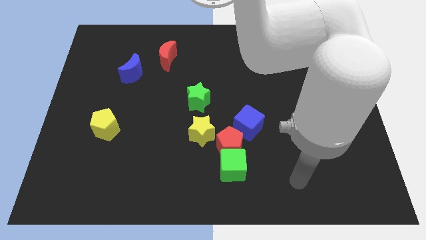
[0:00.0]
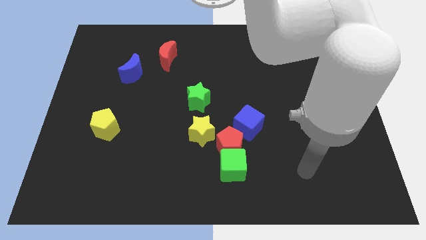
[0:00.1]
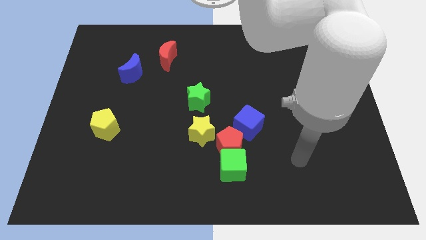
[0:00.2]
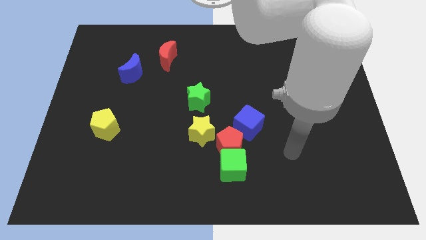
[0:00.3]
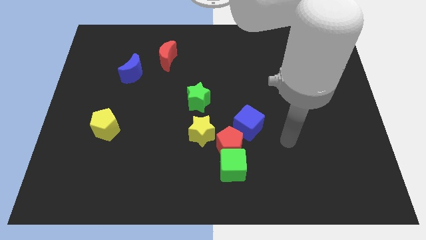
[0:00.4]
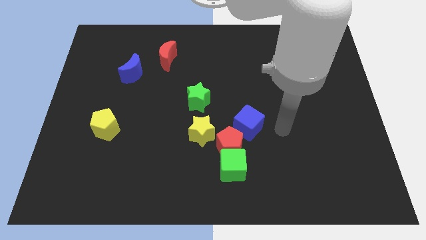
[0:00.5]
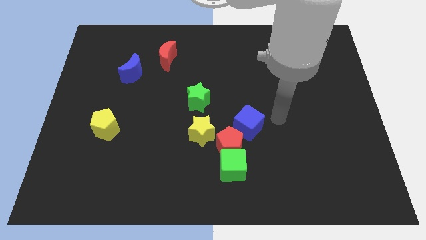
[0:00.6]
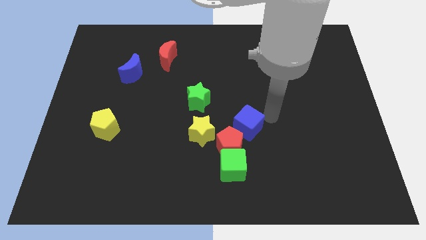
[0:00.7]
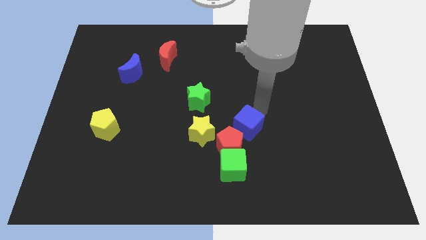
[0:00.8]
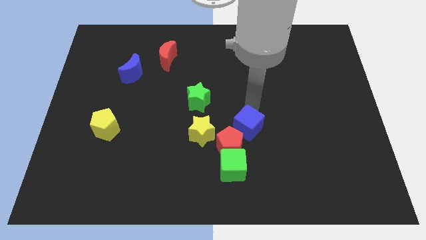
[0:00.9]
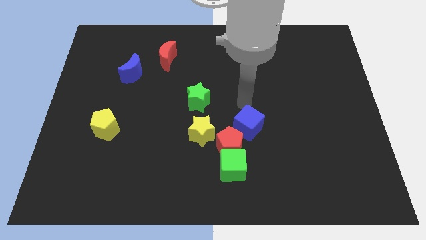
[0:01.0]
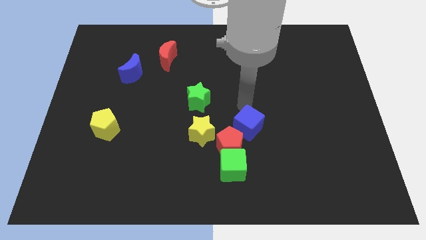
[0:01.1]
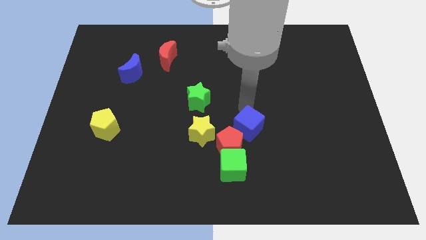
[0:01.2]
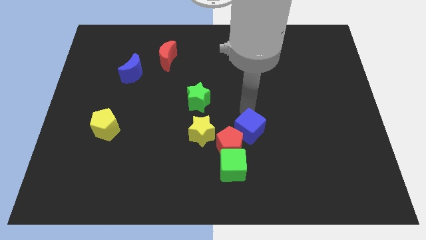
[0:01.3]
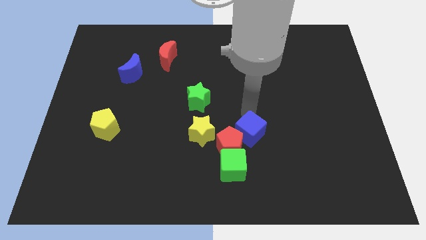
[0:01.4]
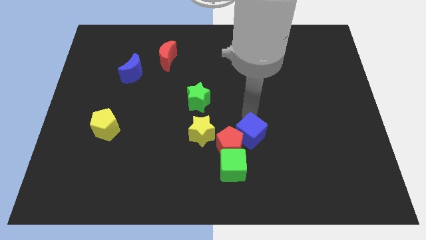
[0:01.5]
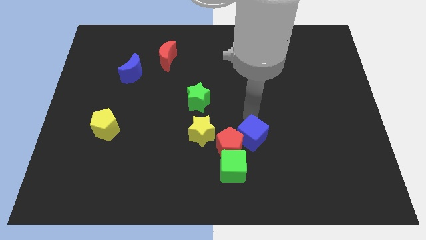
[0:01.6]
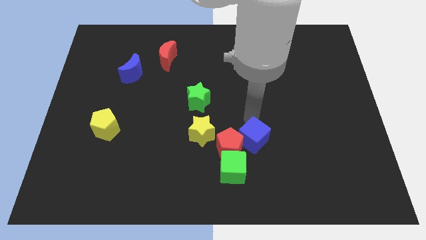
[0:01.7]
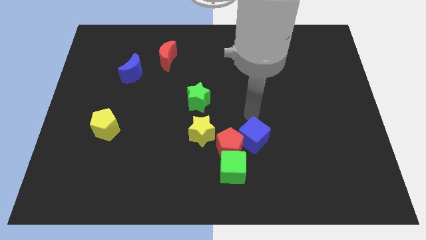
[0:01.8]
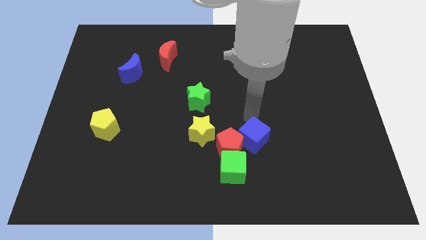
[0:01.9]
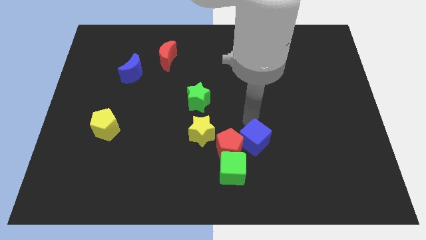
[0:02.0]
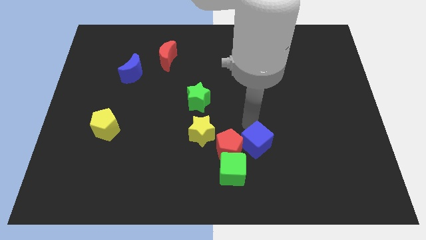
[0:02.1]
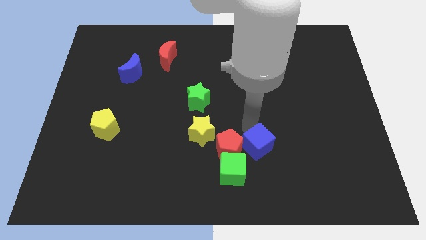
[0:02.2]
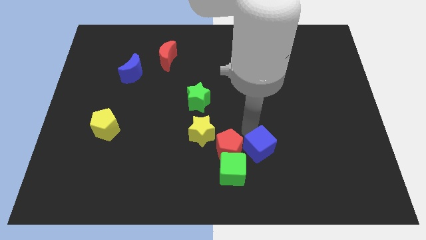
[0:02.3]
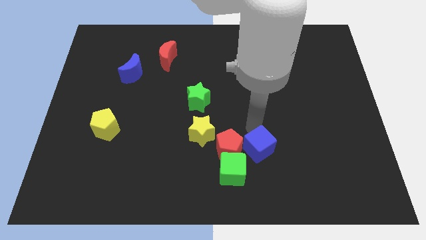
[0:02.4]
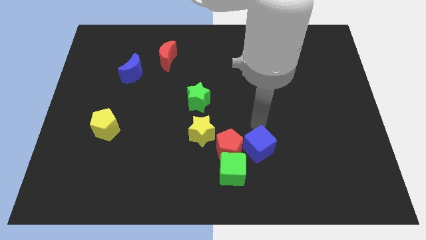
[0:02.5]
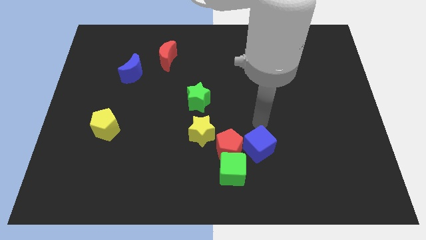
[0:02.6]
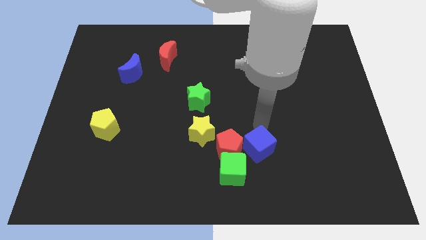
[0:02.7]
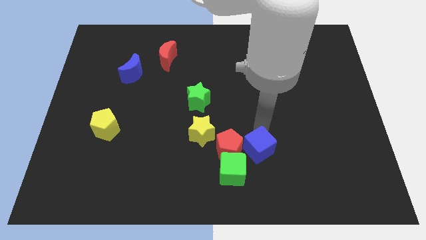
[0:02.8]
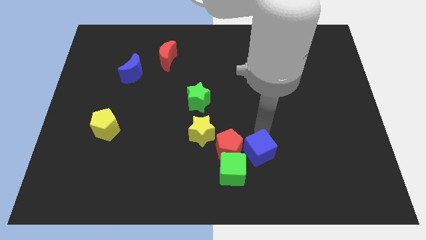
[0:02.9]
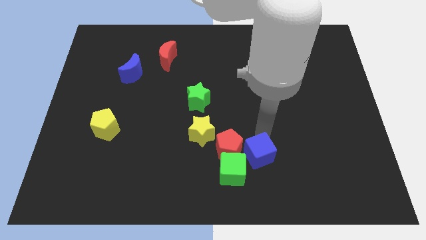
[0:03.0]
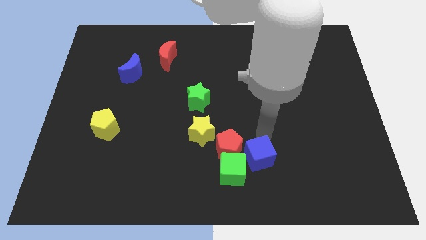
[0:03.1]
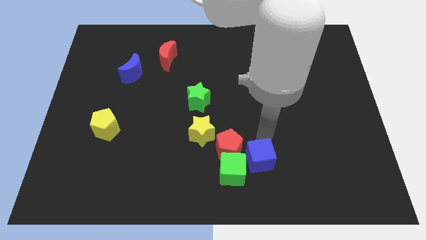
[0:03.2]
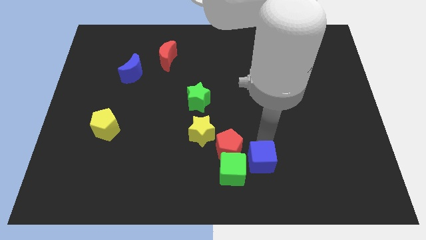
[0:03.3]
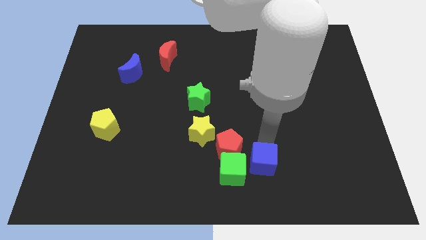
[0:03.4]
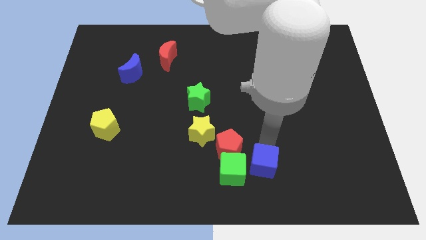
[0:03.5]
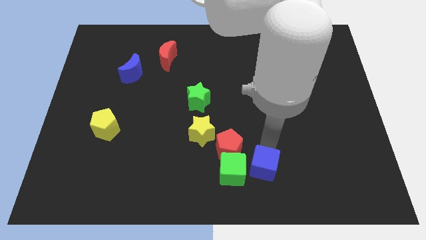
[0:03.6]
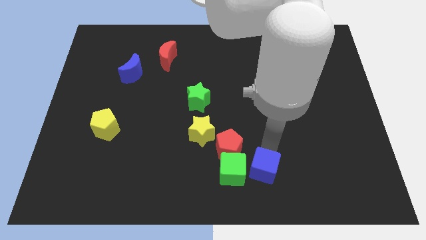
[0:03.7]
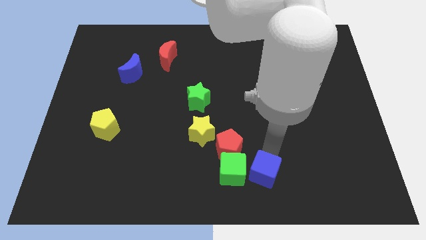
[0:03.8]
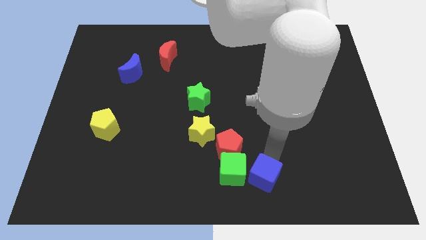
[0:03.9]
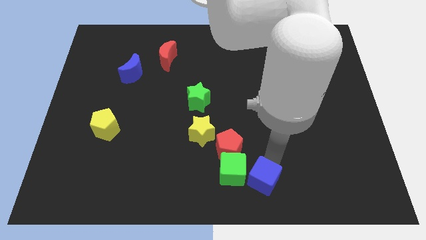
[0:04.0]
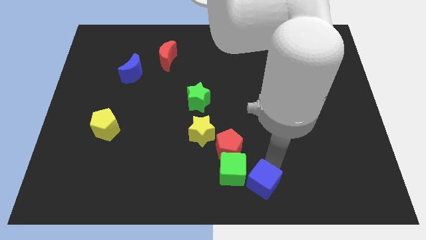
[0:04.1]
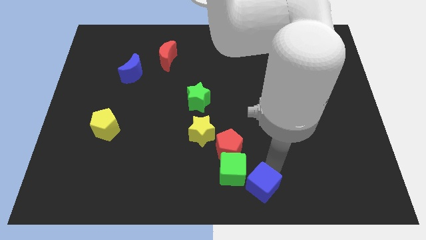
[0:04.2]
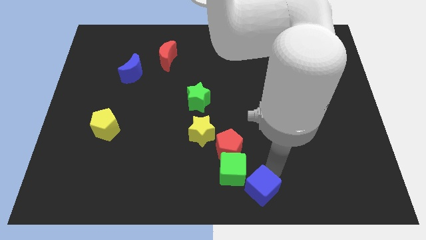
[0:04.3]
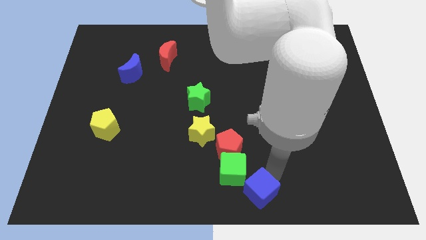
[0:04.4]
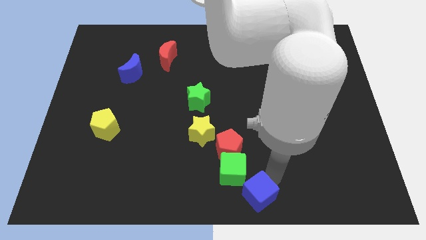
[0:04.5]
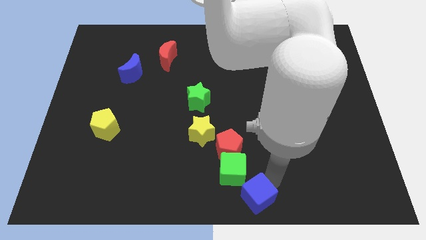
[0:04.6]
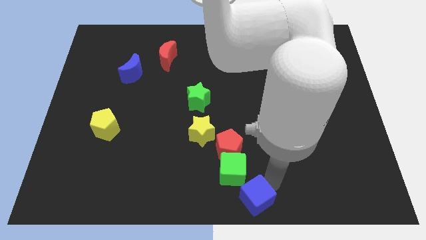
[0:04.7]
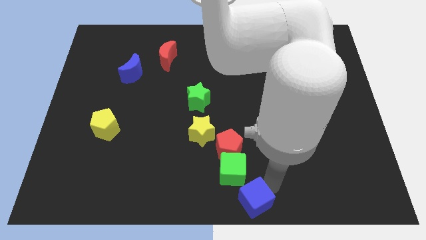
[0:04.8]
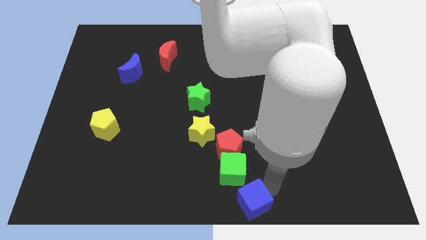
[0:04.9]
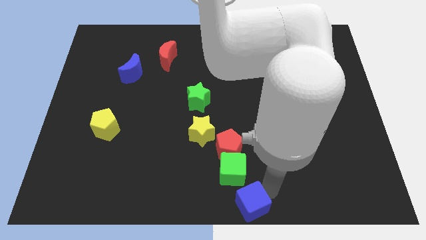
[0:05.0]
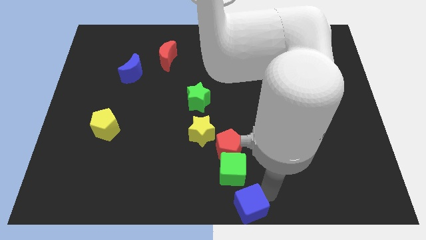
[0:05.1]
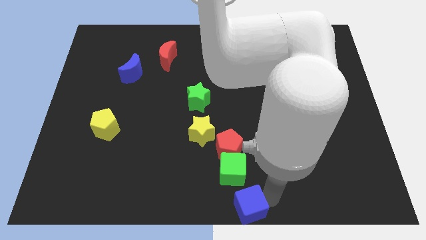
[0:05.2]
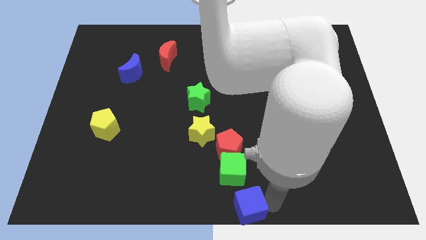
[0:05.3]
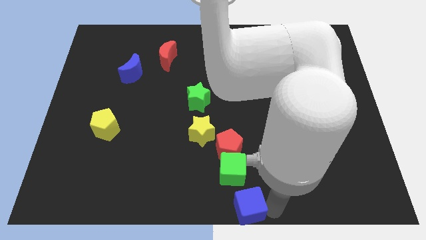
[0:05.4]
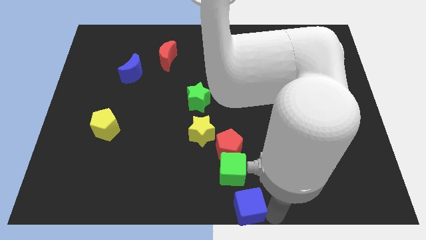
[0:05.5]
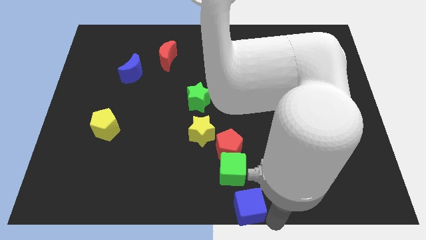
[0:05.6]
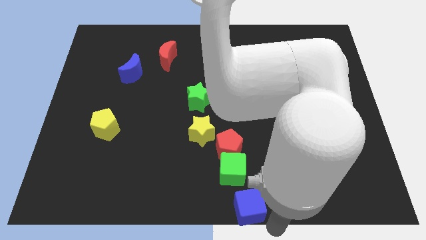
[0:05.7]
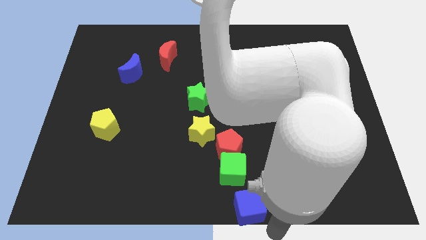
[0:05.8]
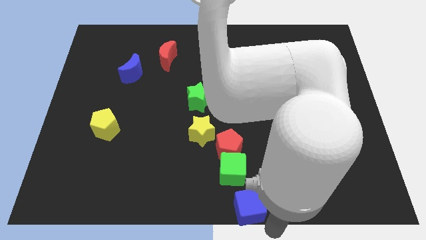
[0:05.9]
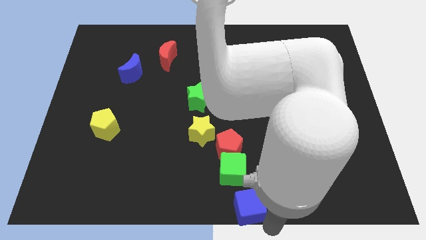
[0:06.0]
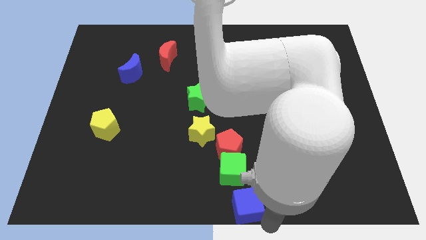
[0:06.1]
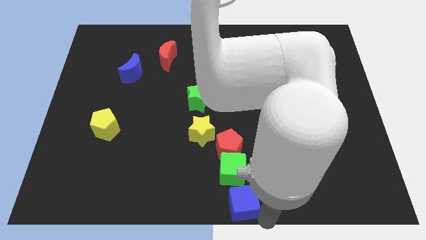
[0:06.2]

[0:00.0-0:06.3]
slightly move the blue cube downwards and to the left diagonally

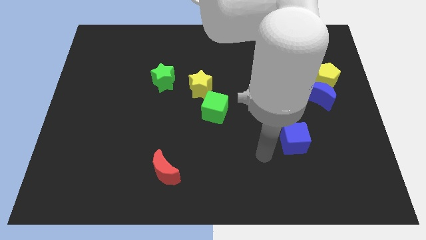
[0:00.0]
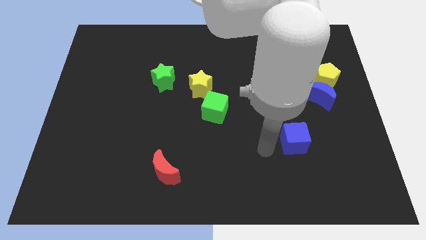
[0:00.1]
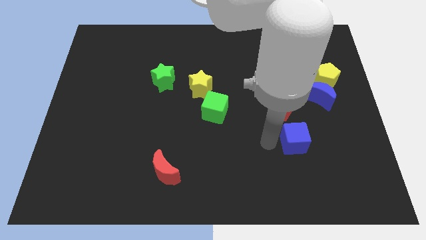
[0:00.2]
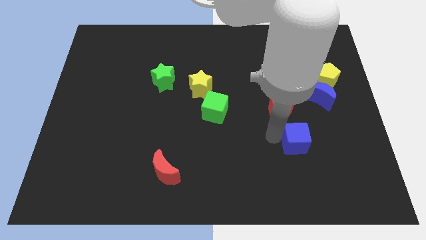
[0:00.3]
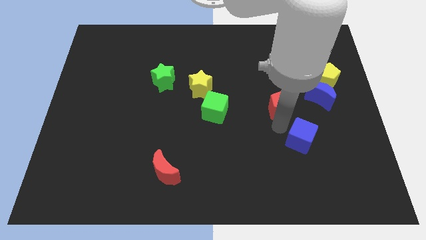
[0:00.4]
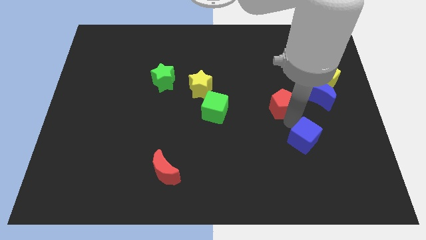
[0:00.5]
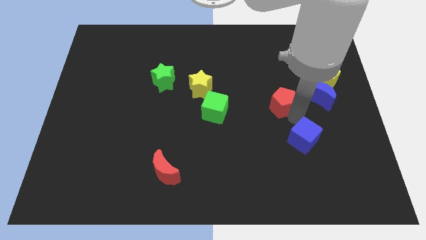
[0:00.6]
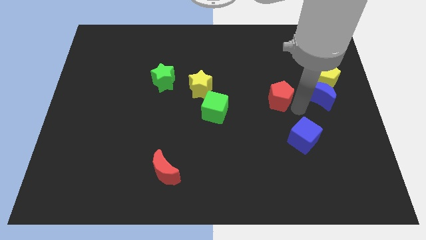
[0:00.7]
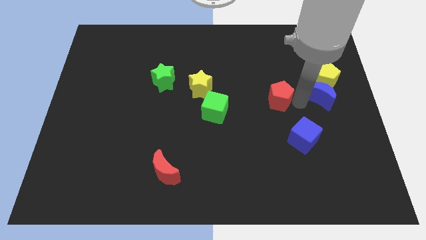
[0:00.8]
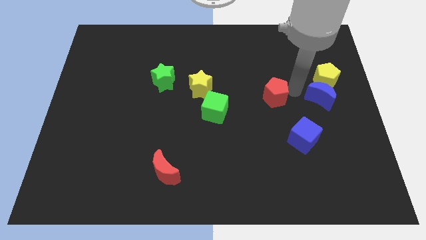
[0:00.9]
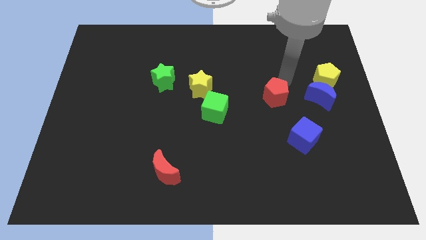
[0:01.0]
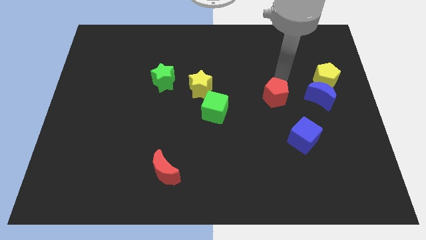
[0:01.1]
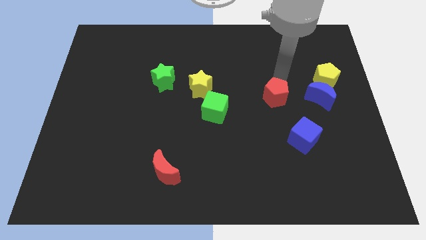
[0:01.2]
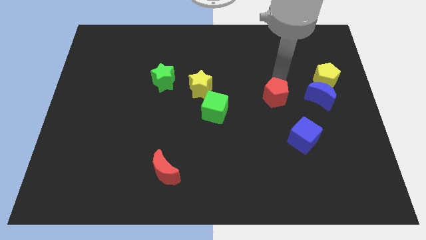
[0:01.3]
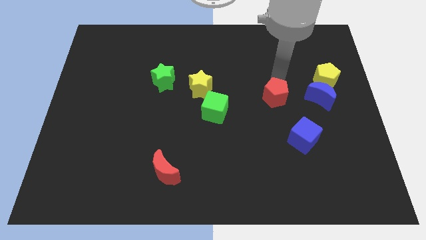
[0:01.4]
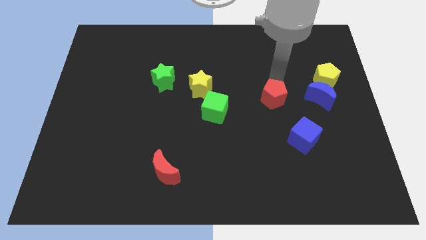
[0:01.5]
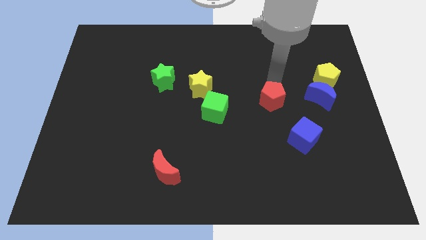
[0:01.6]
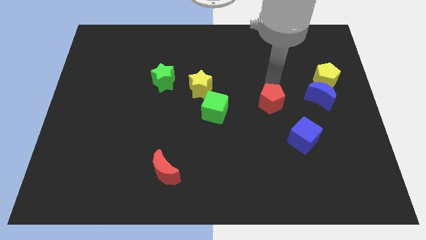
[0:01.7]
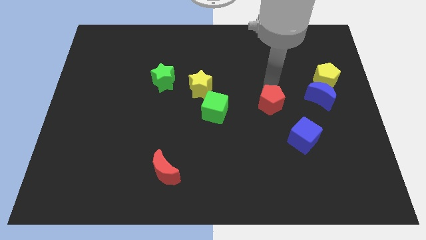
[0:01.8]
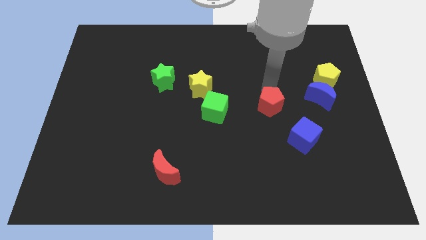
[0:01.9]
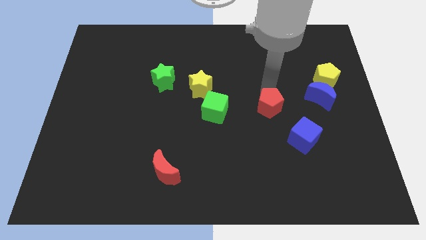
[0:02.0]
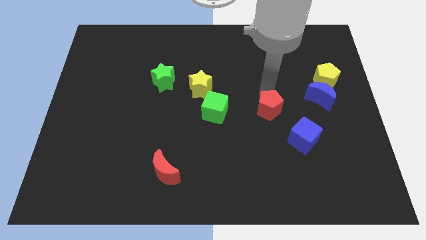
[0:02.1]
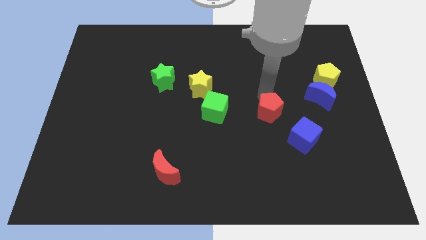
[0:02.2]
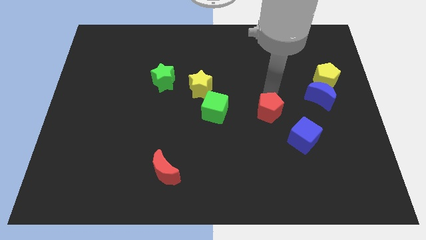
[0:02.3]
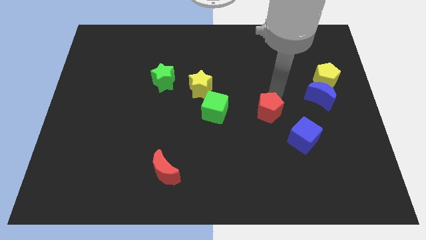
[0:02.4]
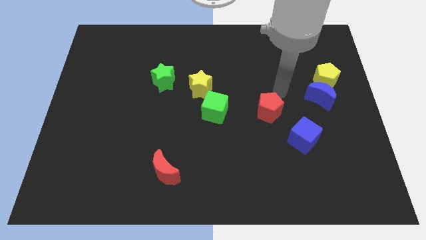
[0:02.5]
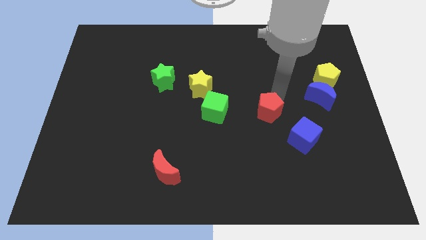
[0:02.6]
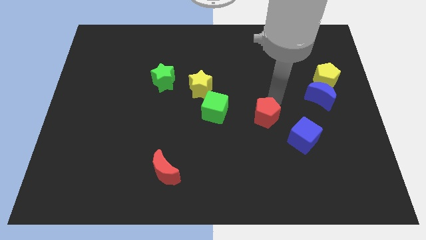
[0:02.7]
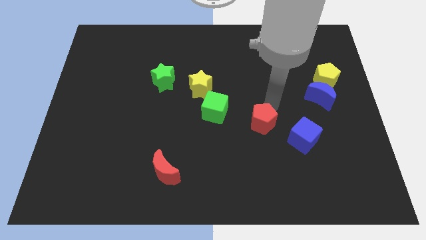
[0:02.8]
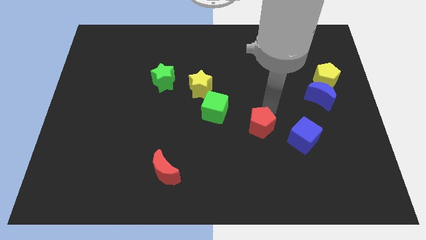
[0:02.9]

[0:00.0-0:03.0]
slightly push the red pentagon diagonally downwards and left
